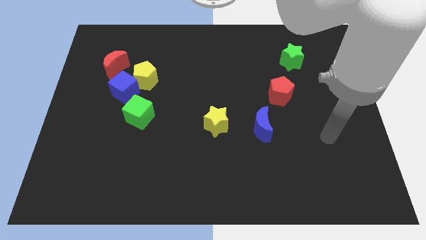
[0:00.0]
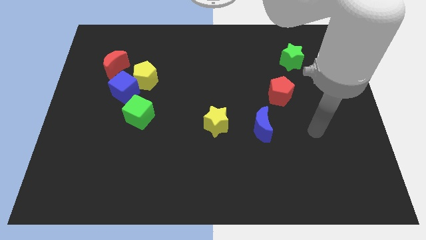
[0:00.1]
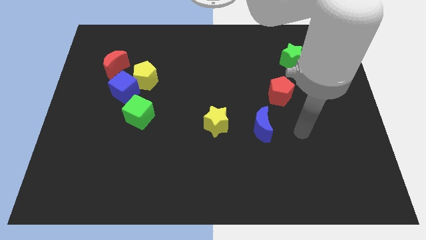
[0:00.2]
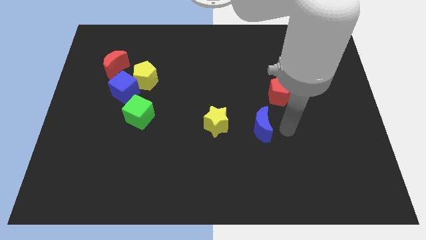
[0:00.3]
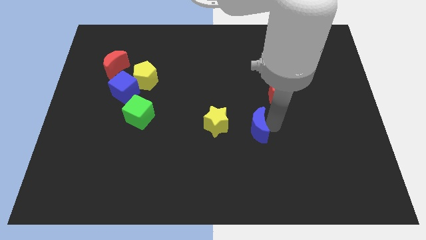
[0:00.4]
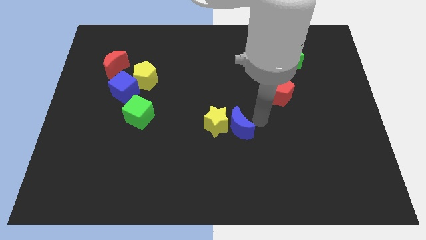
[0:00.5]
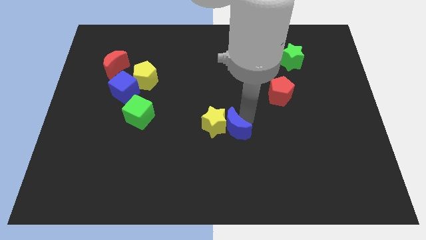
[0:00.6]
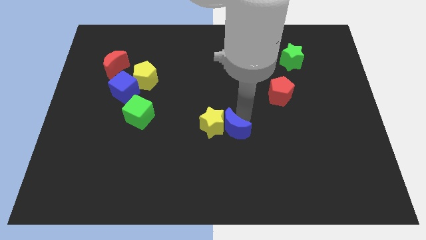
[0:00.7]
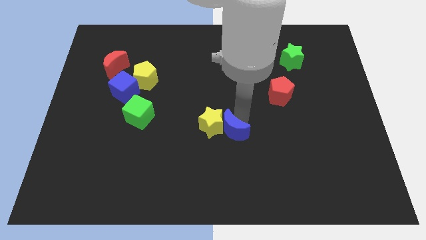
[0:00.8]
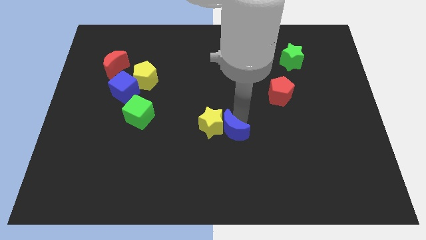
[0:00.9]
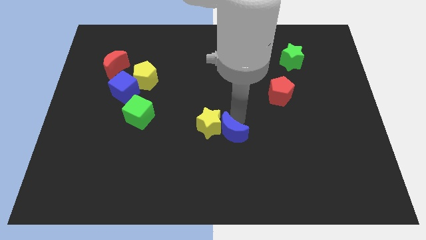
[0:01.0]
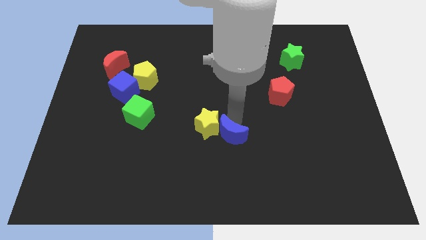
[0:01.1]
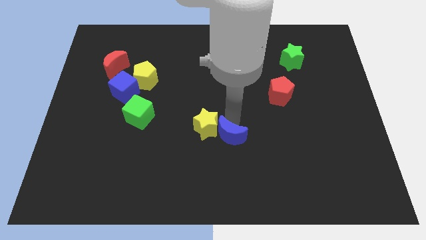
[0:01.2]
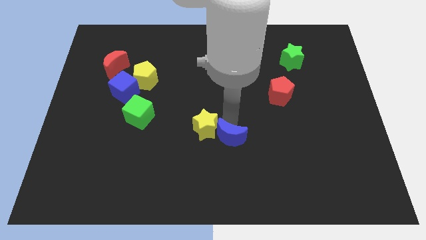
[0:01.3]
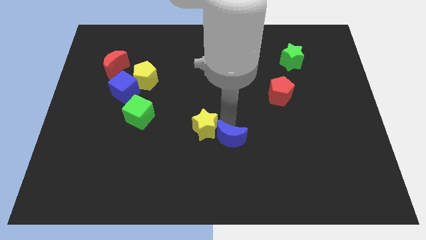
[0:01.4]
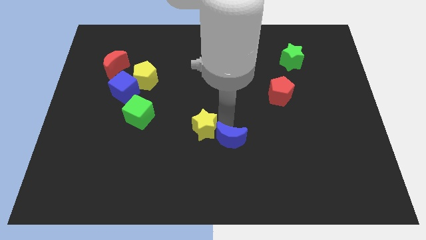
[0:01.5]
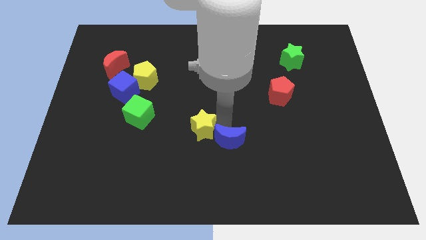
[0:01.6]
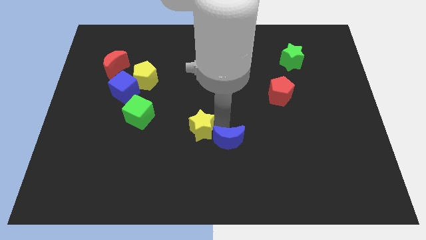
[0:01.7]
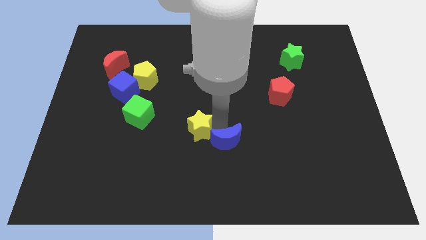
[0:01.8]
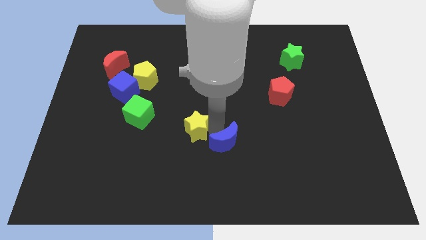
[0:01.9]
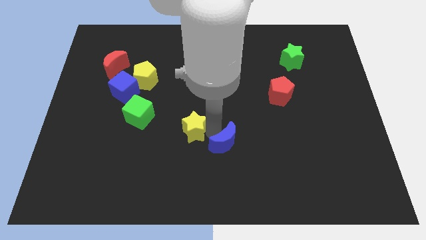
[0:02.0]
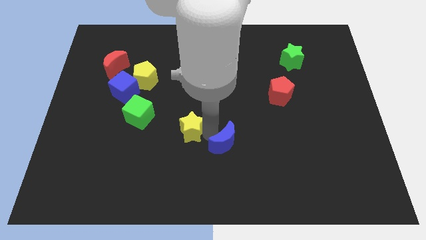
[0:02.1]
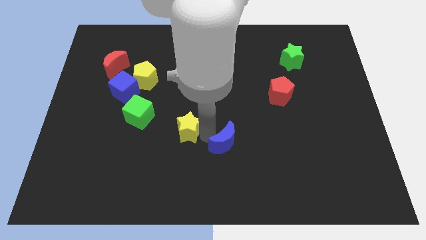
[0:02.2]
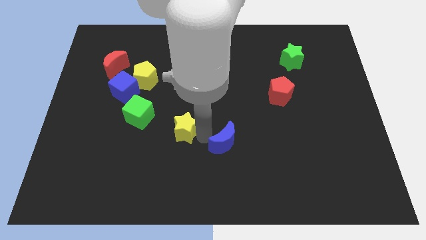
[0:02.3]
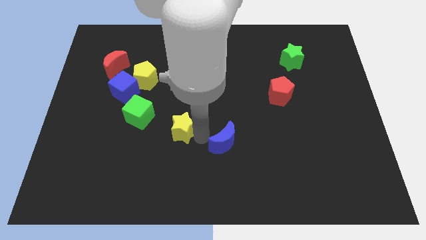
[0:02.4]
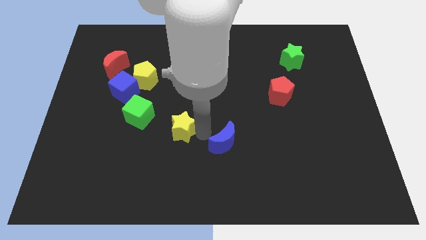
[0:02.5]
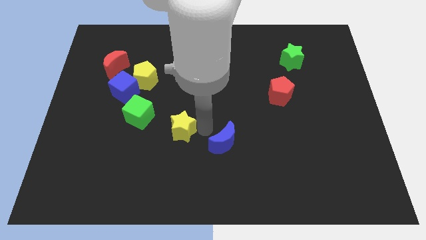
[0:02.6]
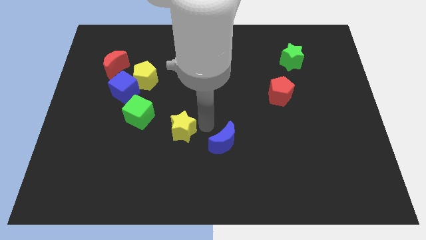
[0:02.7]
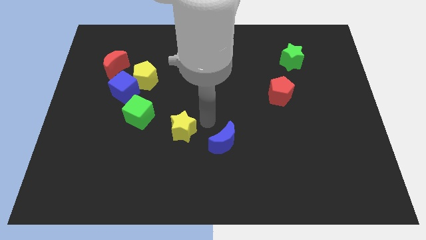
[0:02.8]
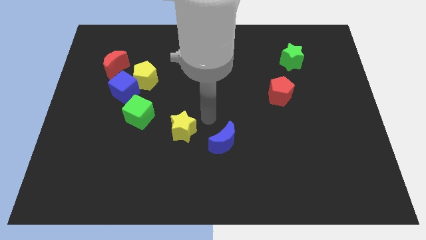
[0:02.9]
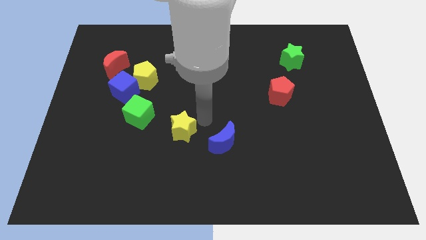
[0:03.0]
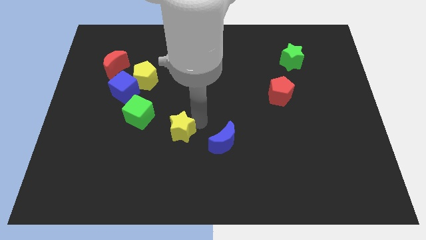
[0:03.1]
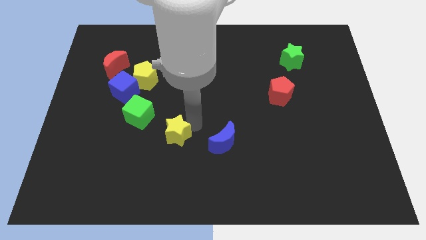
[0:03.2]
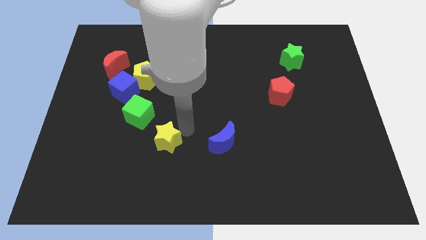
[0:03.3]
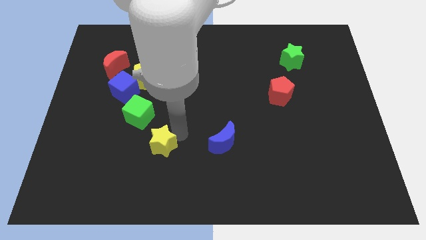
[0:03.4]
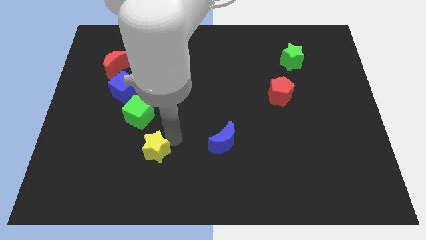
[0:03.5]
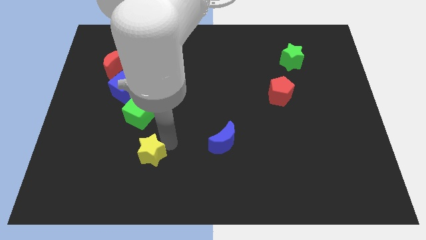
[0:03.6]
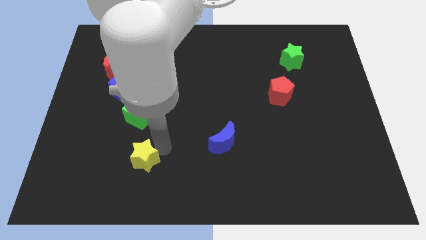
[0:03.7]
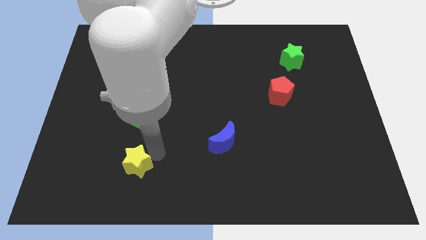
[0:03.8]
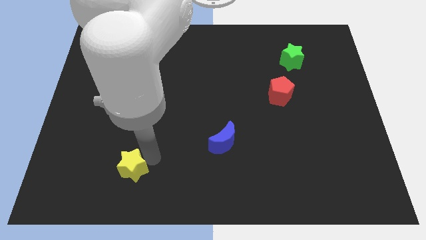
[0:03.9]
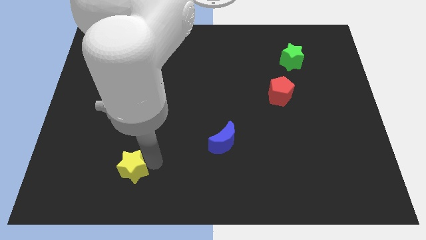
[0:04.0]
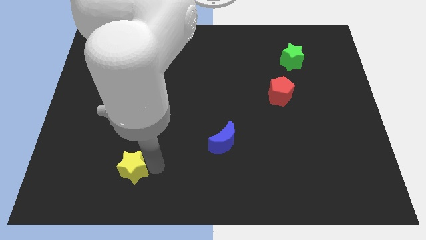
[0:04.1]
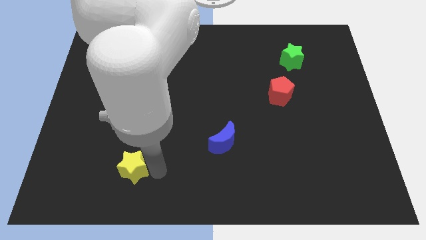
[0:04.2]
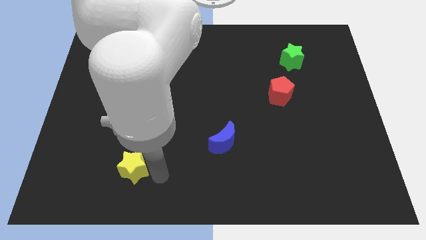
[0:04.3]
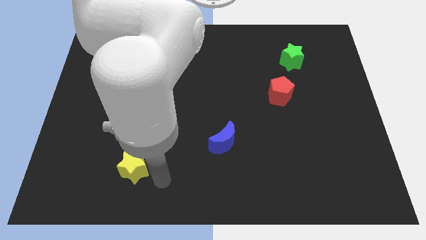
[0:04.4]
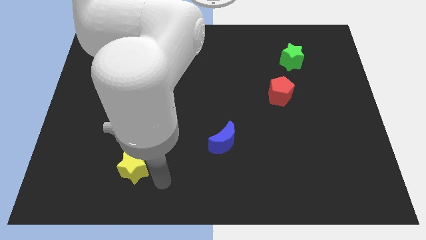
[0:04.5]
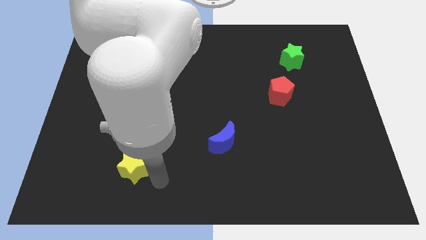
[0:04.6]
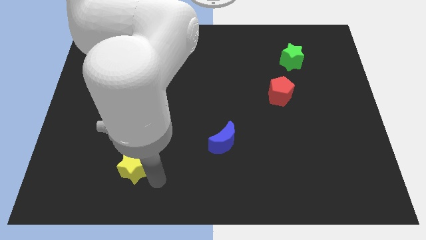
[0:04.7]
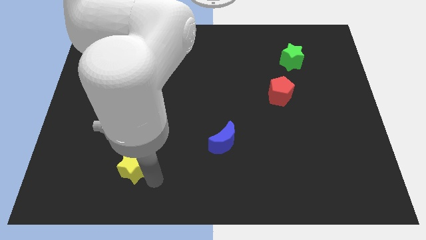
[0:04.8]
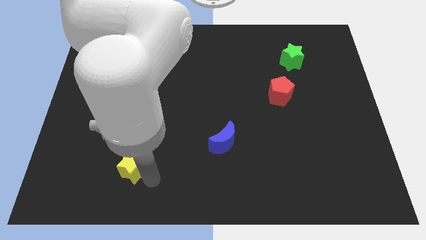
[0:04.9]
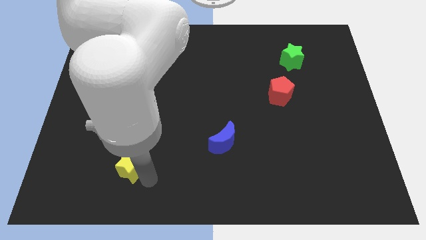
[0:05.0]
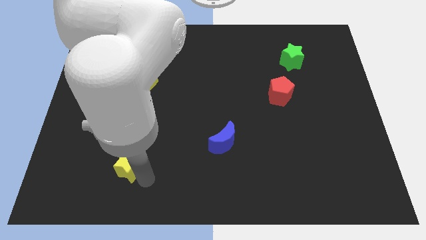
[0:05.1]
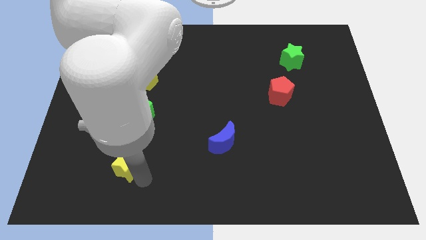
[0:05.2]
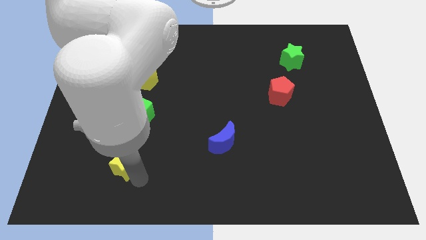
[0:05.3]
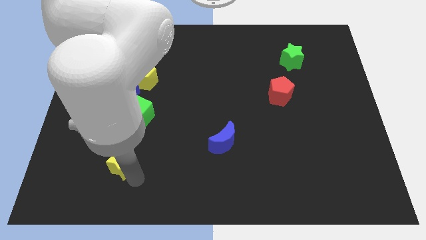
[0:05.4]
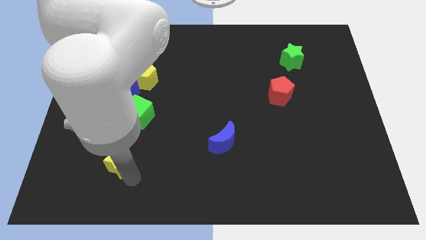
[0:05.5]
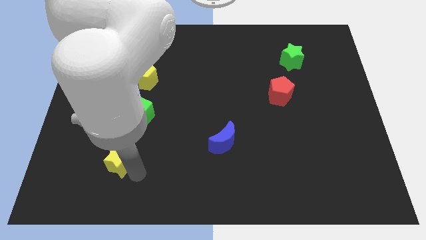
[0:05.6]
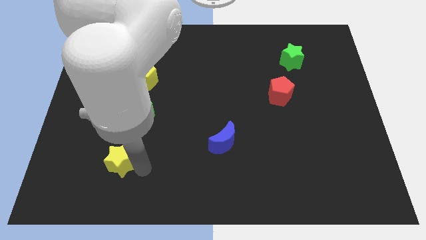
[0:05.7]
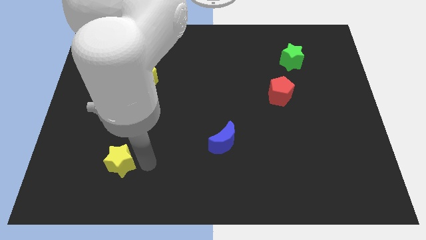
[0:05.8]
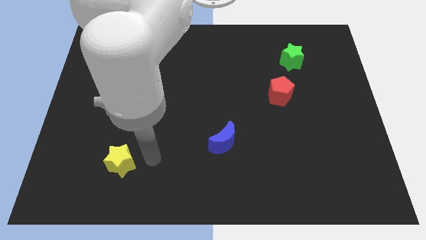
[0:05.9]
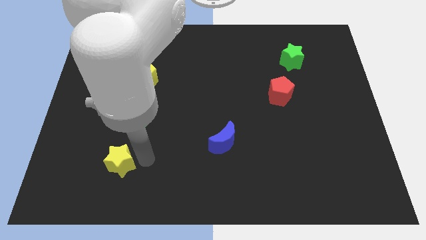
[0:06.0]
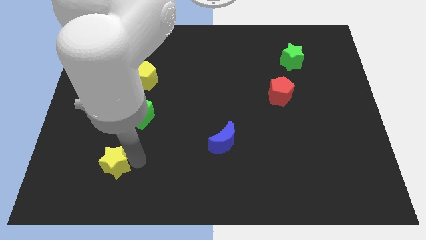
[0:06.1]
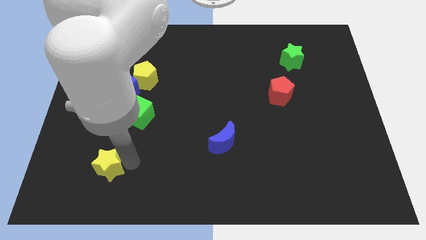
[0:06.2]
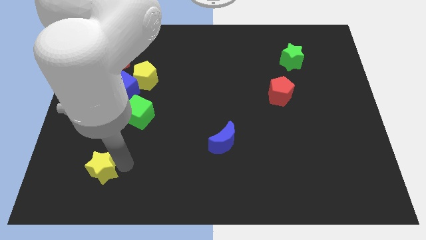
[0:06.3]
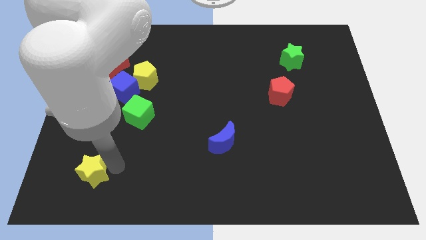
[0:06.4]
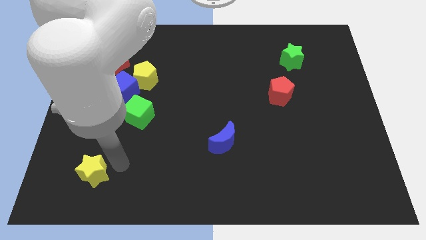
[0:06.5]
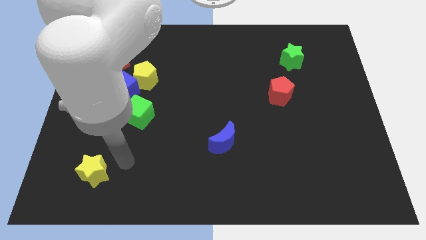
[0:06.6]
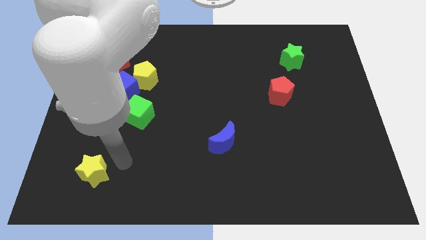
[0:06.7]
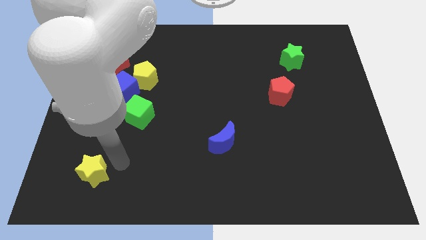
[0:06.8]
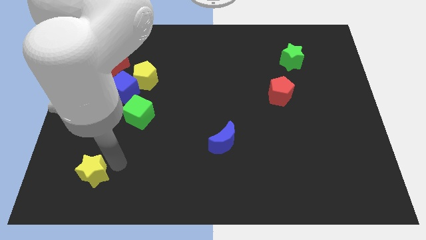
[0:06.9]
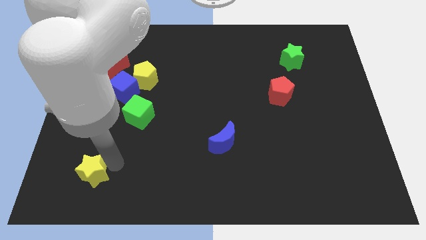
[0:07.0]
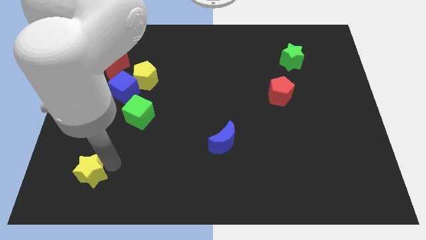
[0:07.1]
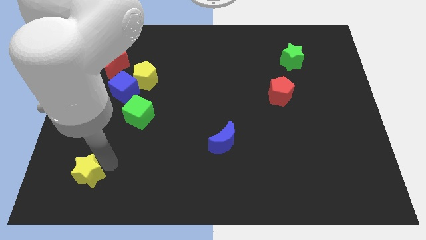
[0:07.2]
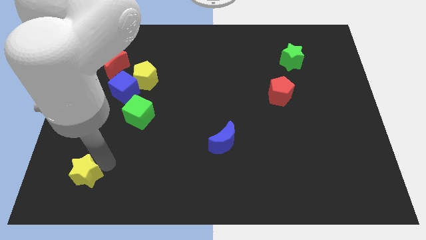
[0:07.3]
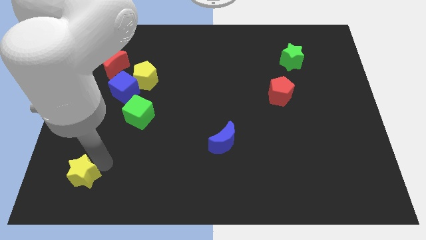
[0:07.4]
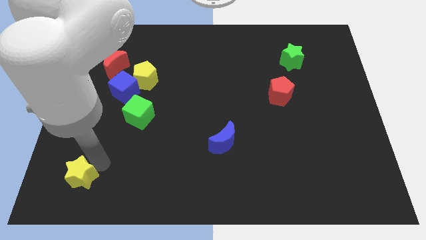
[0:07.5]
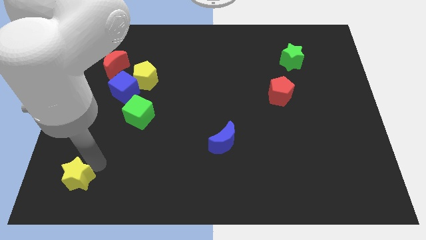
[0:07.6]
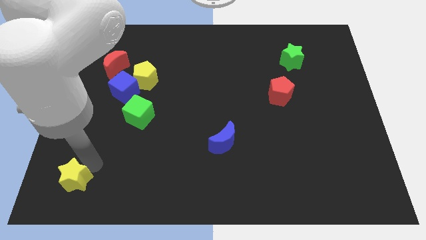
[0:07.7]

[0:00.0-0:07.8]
slide the yellow star to the lower left corner

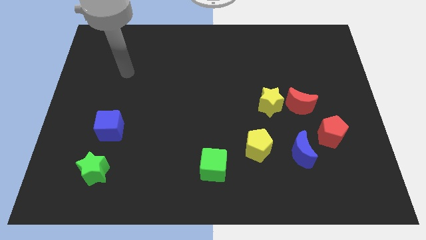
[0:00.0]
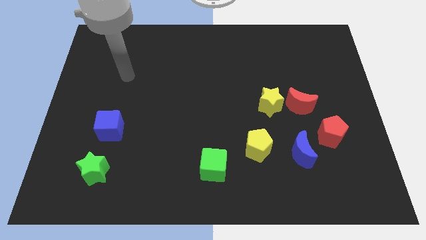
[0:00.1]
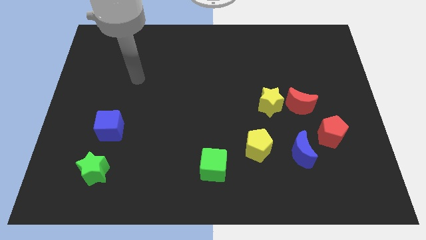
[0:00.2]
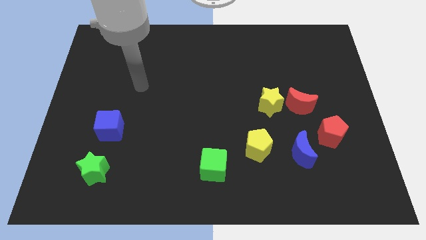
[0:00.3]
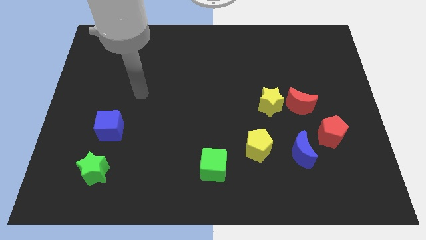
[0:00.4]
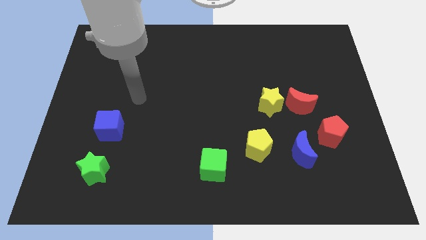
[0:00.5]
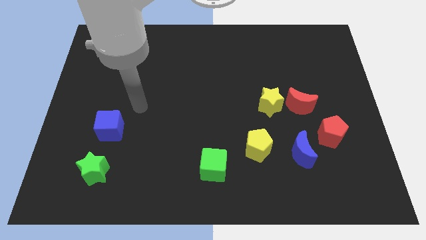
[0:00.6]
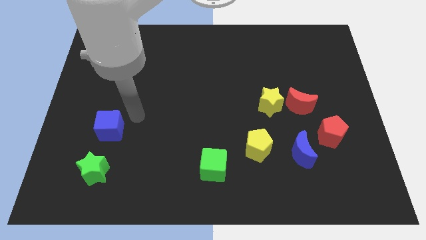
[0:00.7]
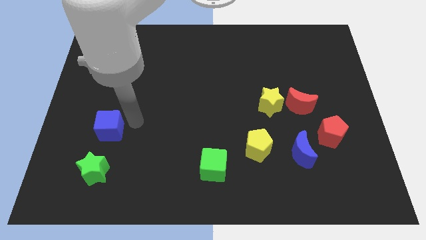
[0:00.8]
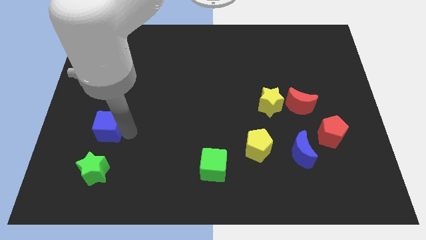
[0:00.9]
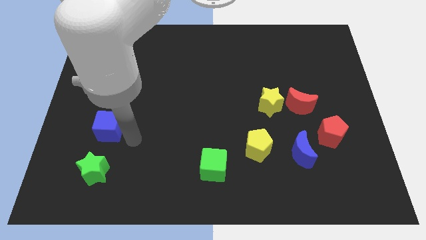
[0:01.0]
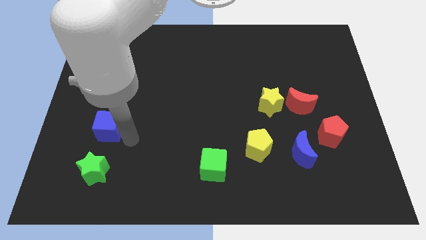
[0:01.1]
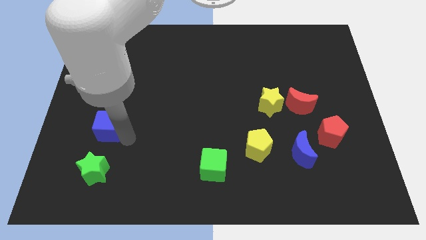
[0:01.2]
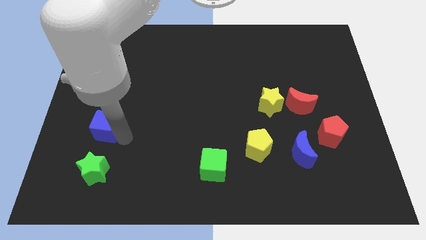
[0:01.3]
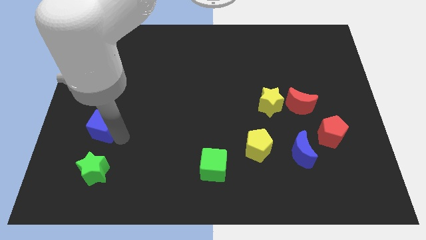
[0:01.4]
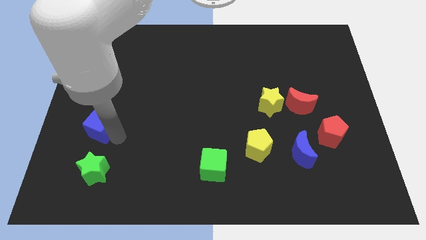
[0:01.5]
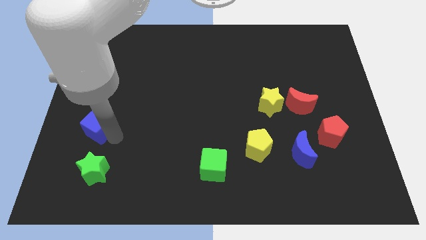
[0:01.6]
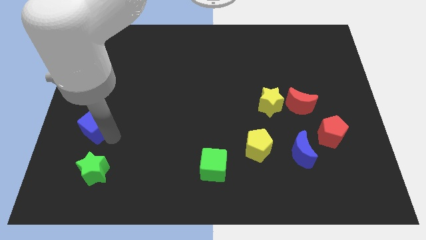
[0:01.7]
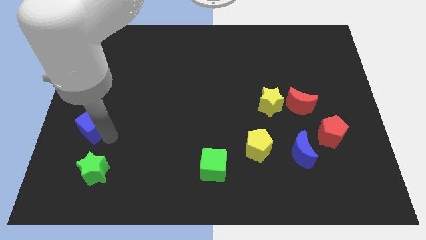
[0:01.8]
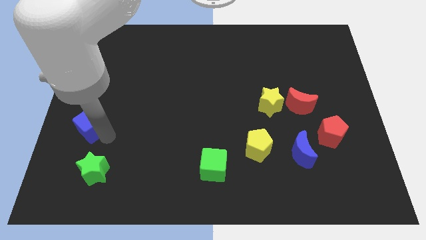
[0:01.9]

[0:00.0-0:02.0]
slide the blue cube to the center left
